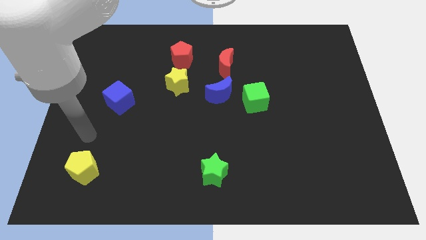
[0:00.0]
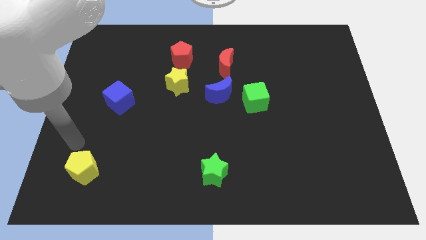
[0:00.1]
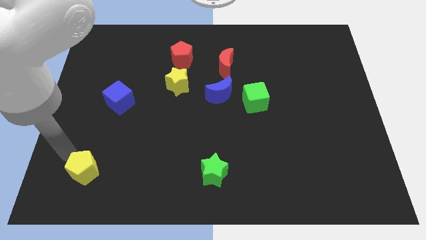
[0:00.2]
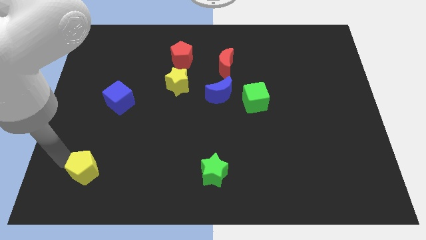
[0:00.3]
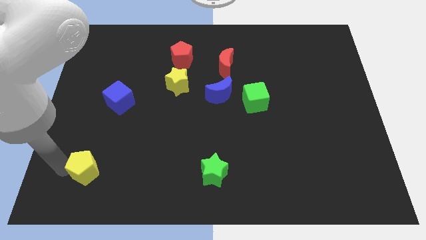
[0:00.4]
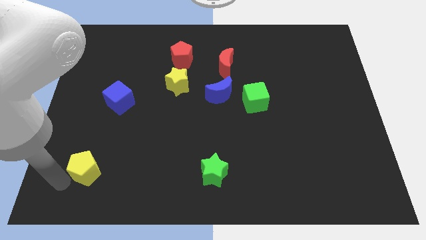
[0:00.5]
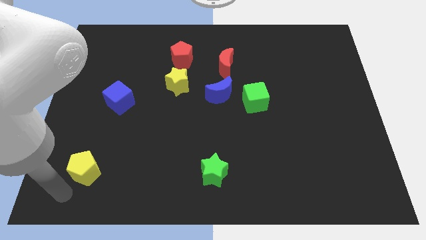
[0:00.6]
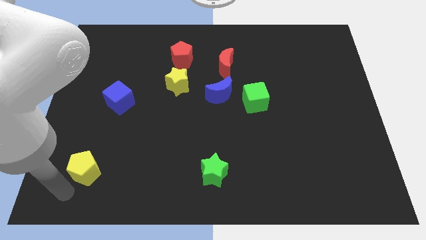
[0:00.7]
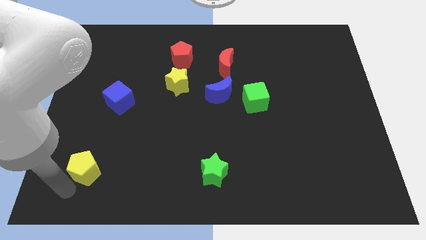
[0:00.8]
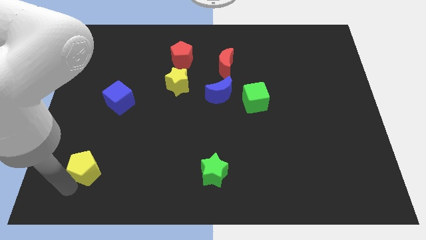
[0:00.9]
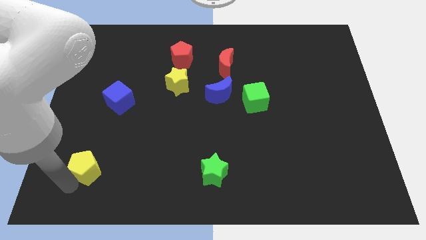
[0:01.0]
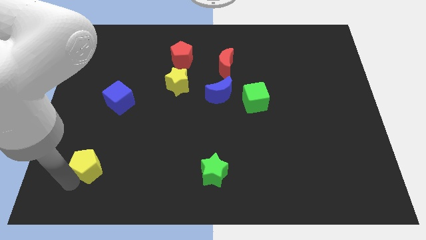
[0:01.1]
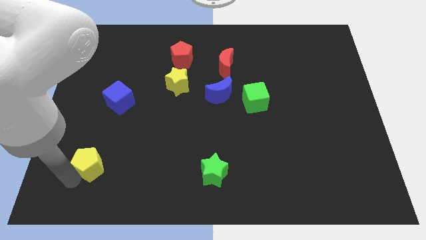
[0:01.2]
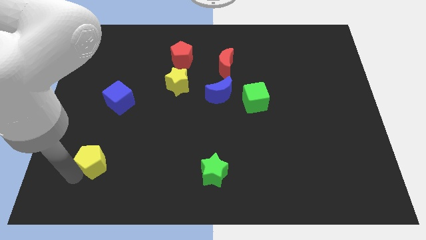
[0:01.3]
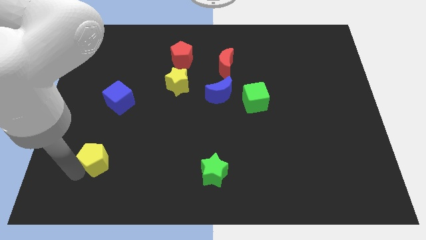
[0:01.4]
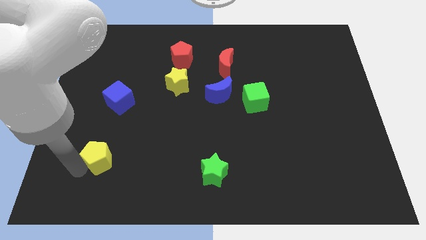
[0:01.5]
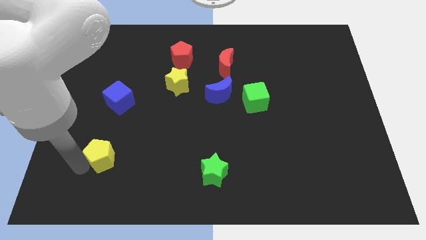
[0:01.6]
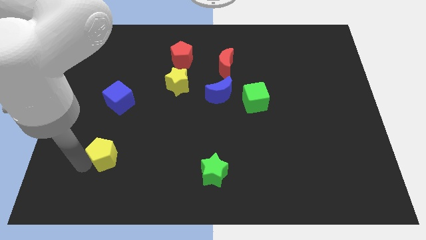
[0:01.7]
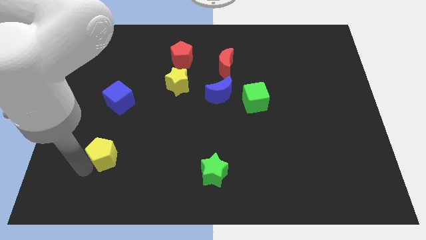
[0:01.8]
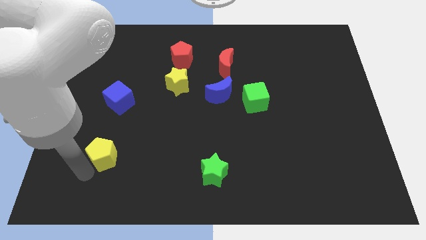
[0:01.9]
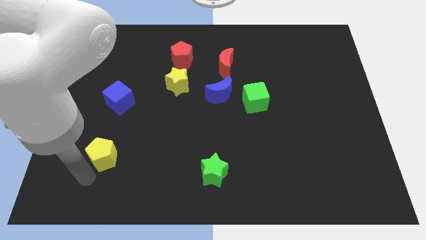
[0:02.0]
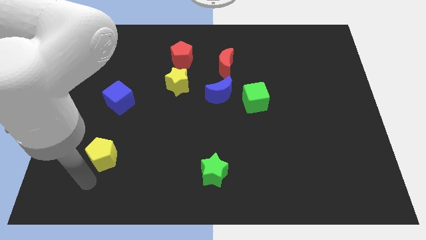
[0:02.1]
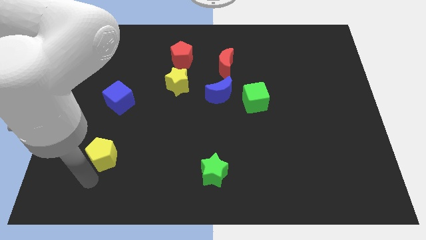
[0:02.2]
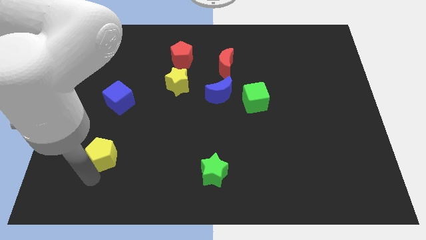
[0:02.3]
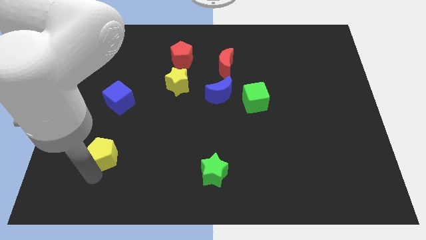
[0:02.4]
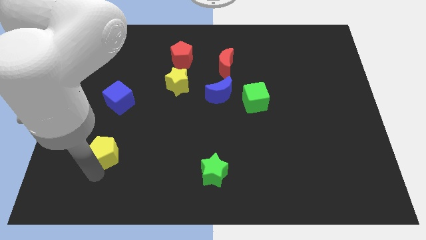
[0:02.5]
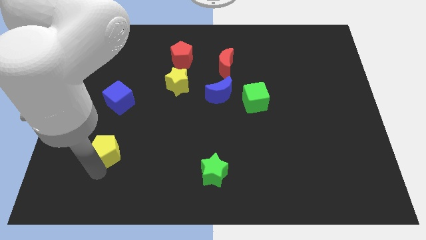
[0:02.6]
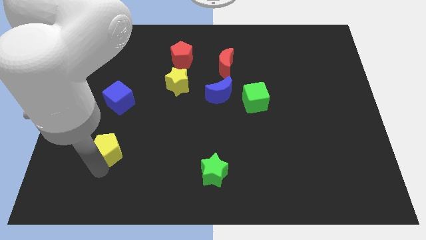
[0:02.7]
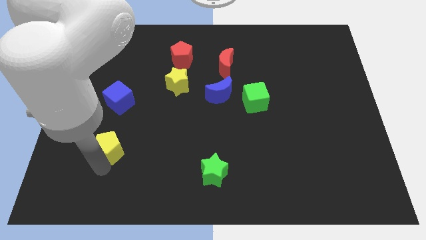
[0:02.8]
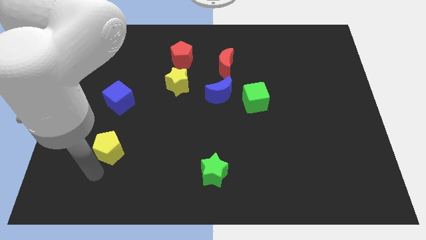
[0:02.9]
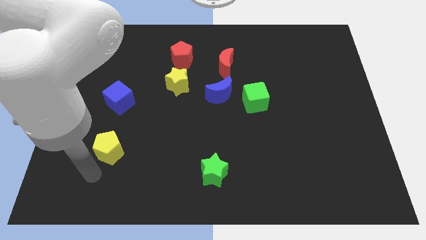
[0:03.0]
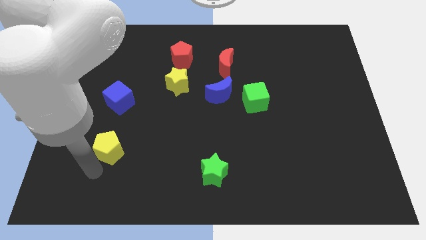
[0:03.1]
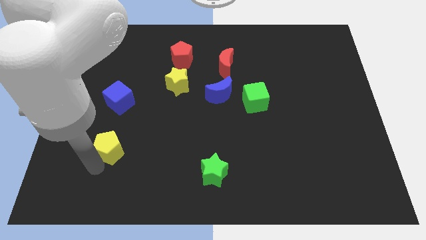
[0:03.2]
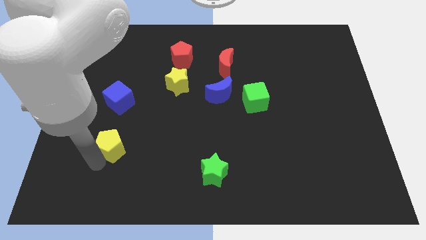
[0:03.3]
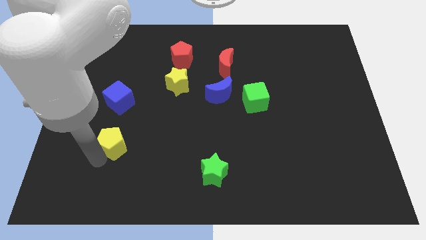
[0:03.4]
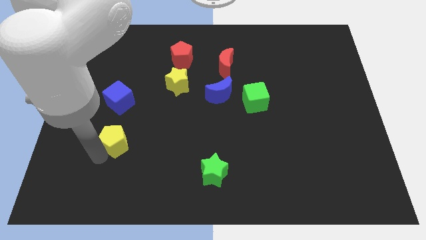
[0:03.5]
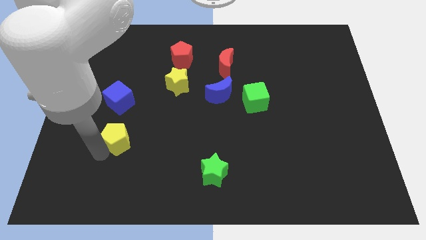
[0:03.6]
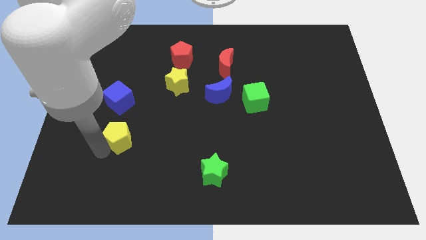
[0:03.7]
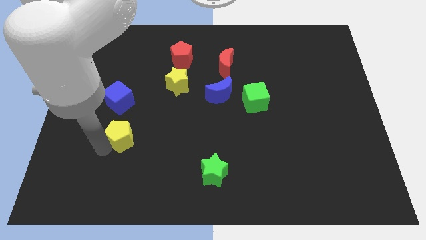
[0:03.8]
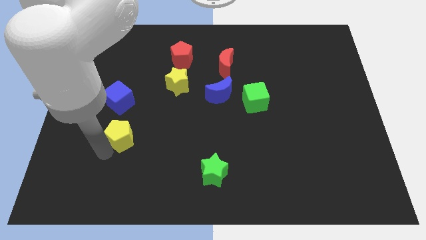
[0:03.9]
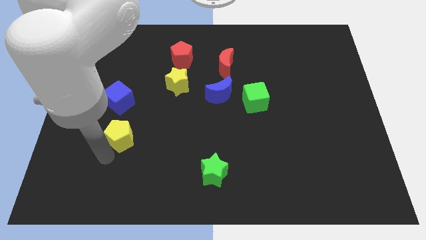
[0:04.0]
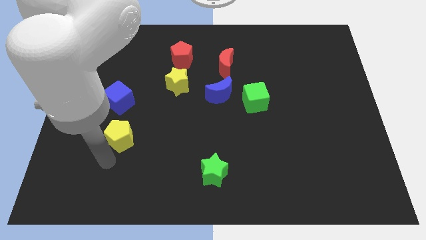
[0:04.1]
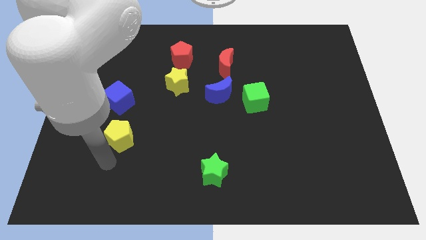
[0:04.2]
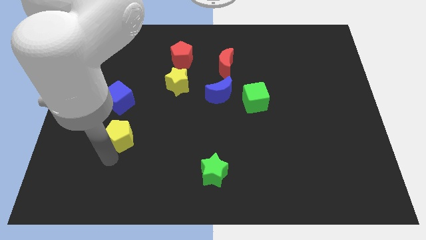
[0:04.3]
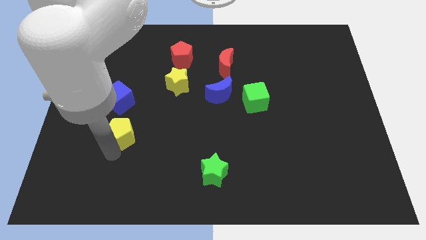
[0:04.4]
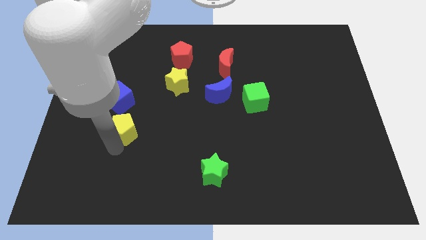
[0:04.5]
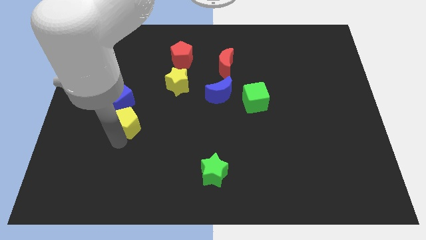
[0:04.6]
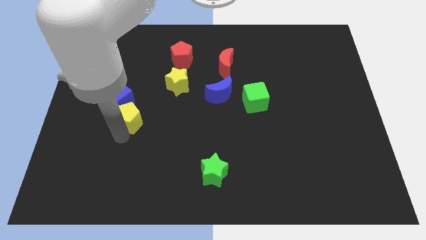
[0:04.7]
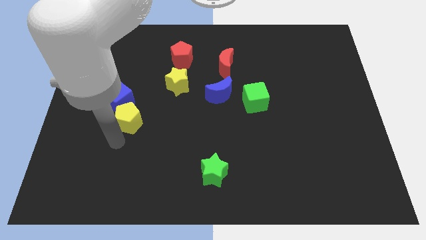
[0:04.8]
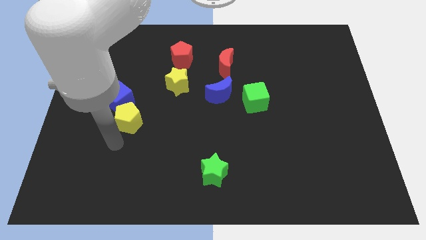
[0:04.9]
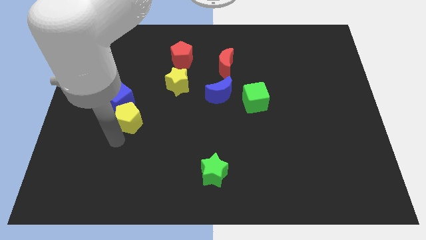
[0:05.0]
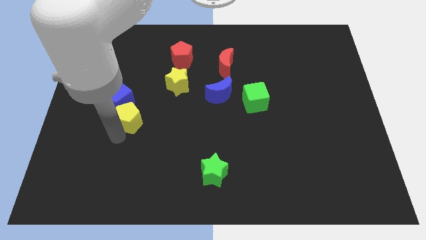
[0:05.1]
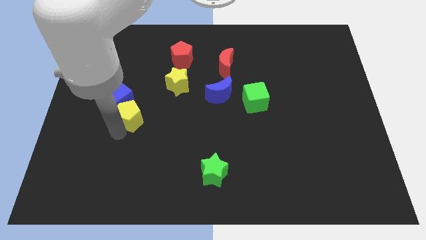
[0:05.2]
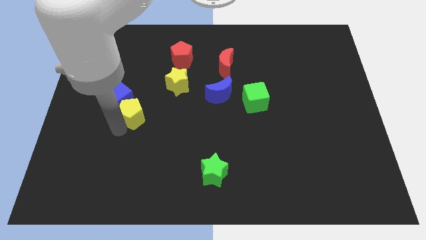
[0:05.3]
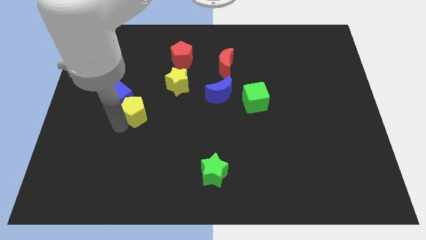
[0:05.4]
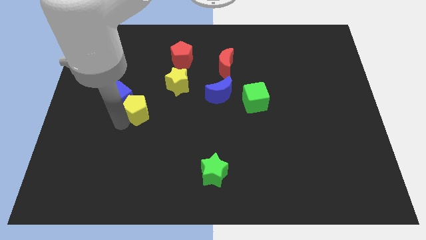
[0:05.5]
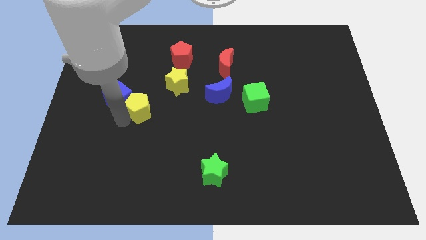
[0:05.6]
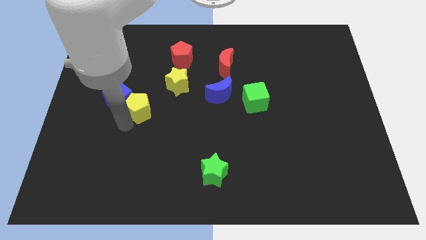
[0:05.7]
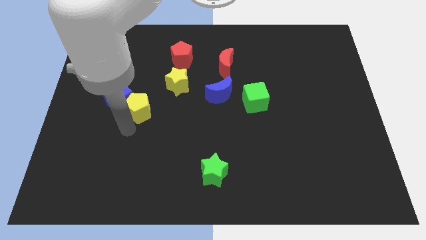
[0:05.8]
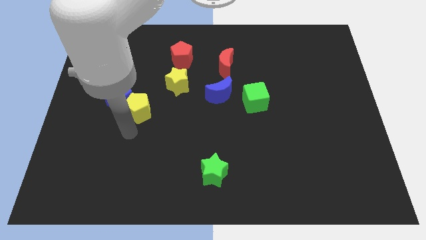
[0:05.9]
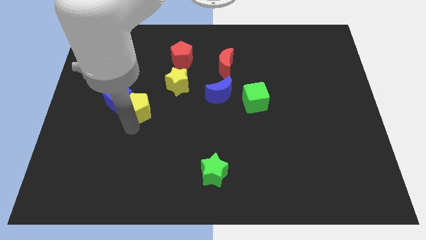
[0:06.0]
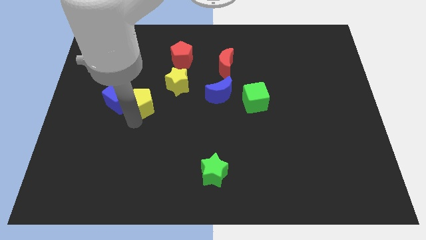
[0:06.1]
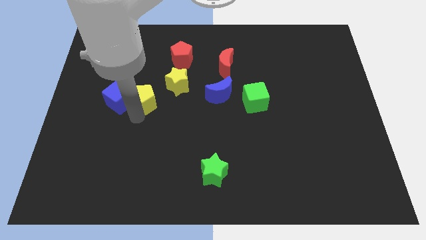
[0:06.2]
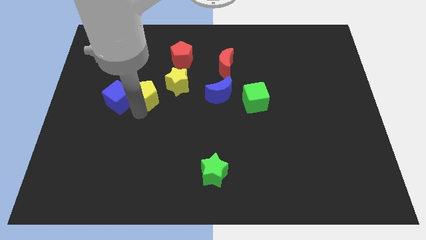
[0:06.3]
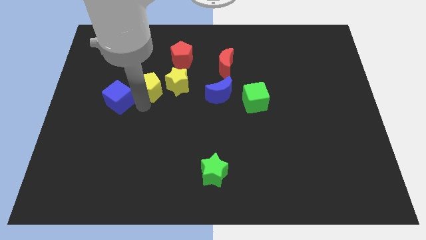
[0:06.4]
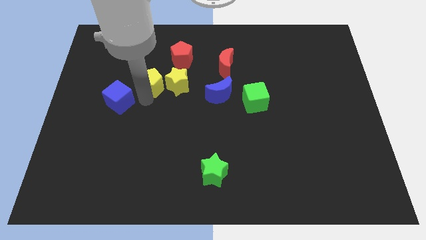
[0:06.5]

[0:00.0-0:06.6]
slide the yellow pentagon to the top left side of the yellow star
